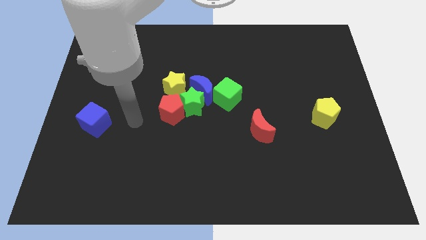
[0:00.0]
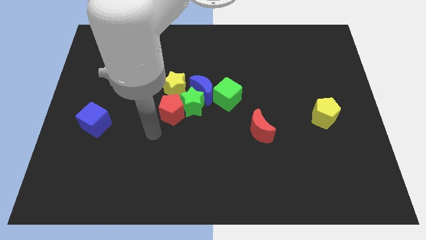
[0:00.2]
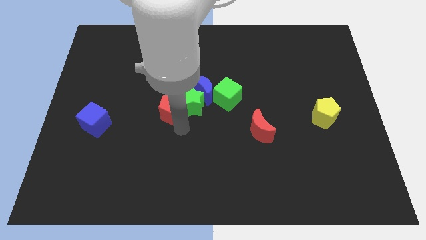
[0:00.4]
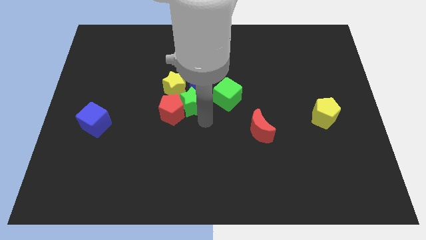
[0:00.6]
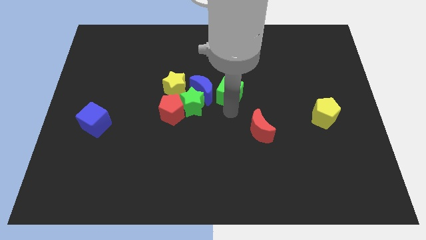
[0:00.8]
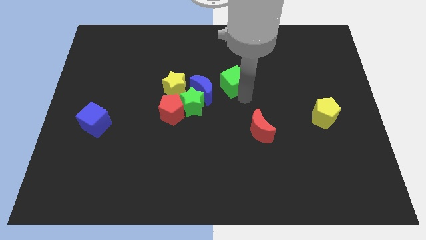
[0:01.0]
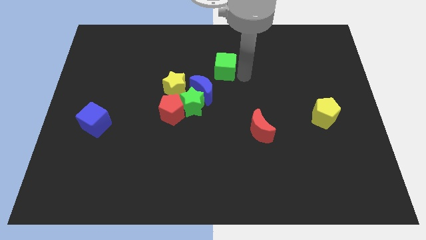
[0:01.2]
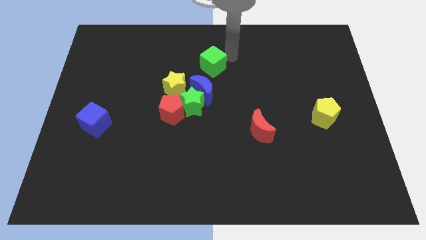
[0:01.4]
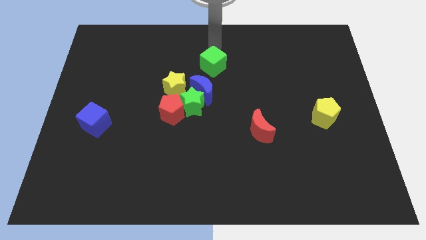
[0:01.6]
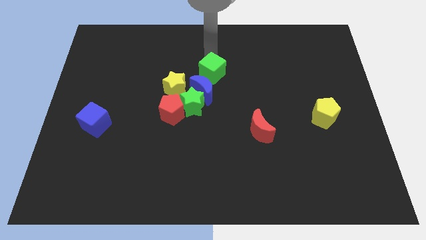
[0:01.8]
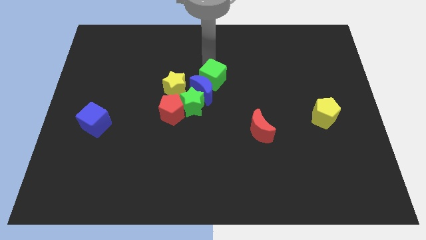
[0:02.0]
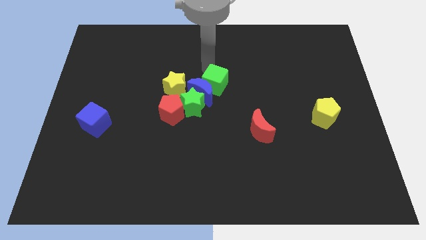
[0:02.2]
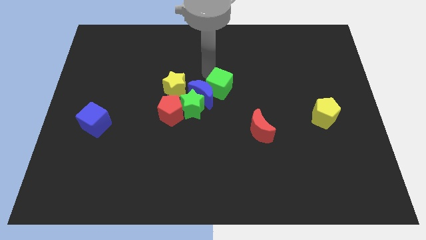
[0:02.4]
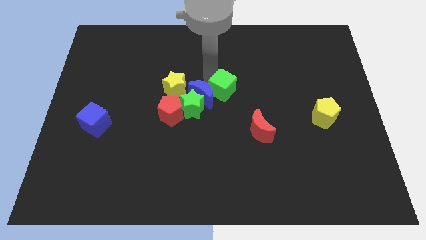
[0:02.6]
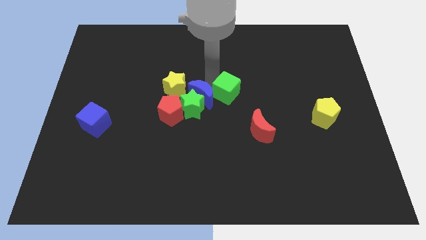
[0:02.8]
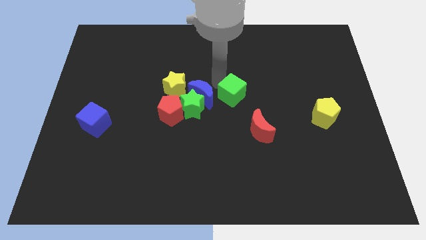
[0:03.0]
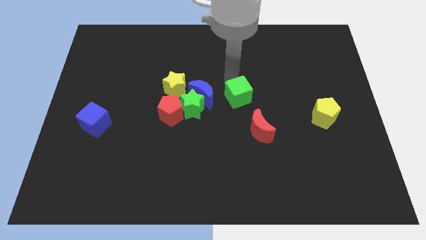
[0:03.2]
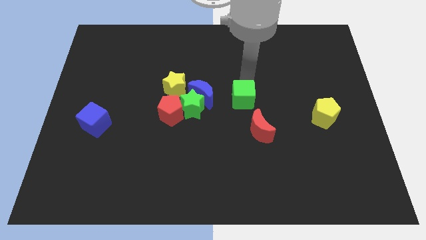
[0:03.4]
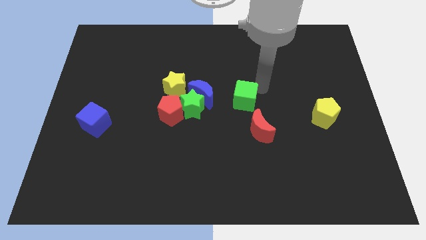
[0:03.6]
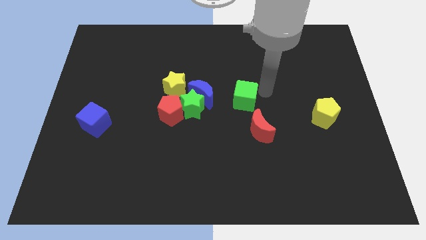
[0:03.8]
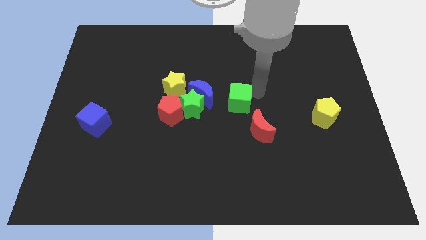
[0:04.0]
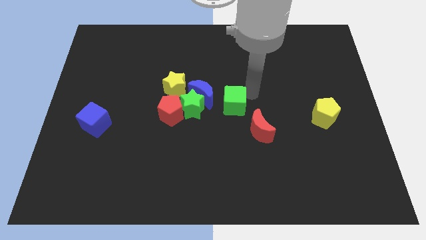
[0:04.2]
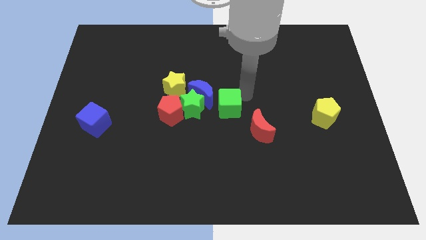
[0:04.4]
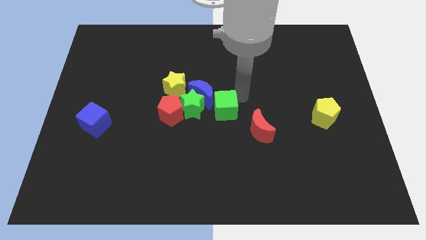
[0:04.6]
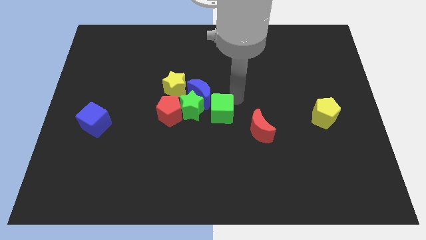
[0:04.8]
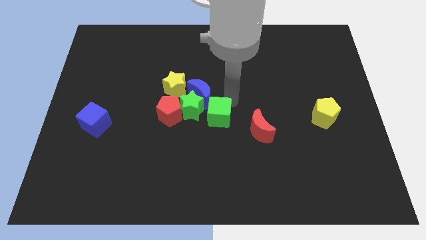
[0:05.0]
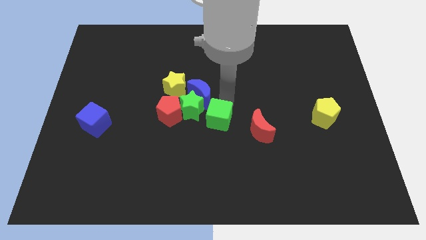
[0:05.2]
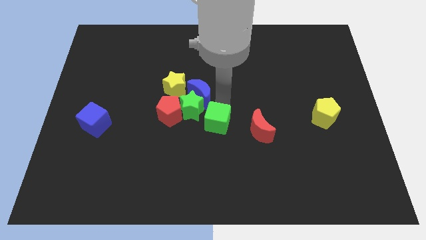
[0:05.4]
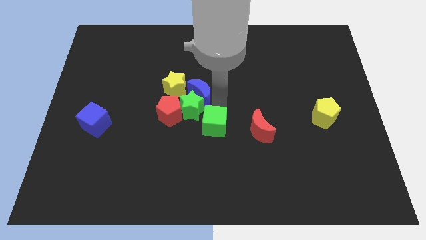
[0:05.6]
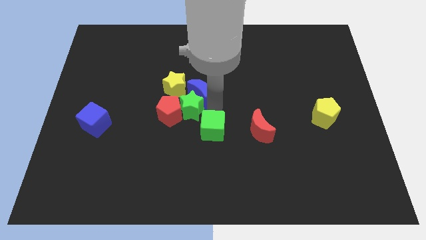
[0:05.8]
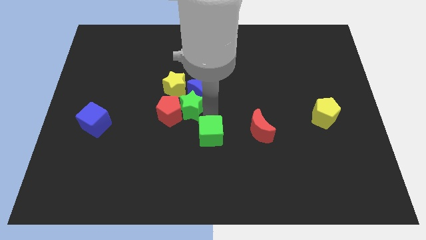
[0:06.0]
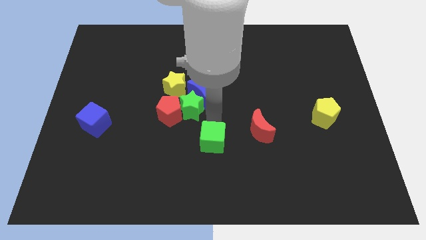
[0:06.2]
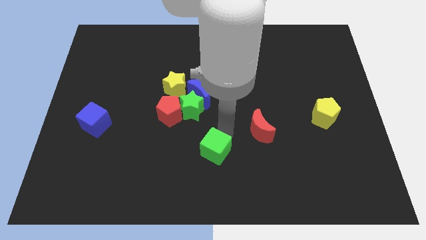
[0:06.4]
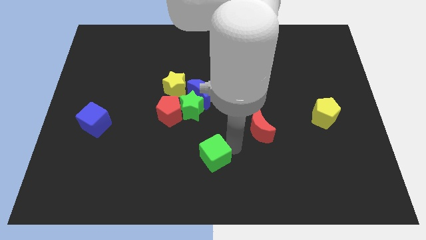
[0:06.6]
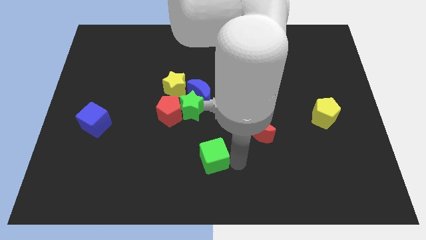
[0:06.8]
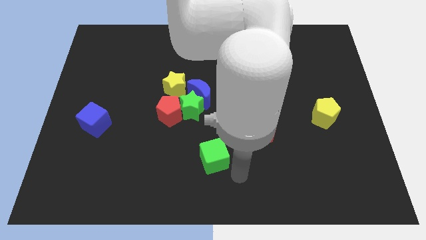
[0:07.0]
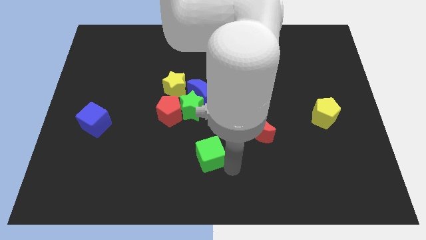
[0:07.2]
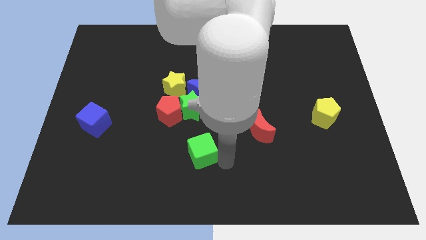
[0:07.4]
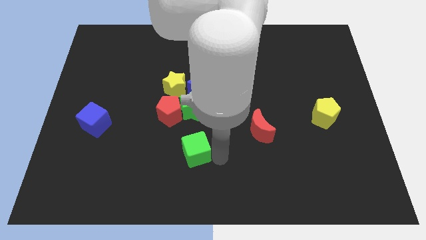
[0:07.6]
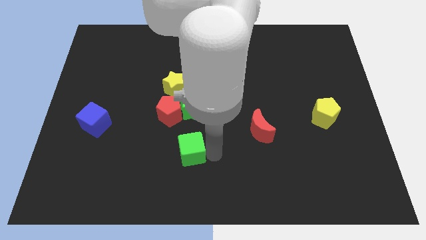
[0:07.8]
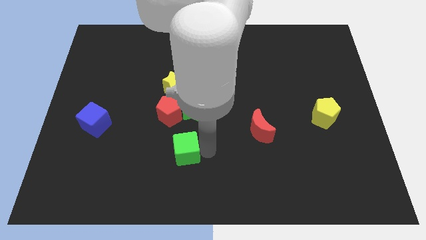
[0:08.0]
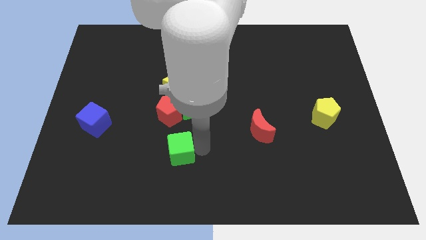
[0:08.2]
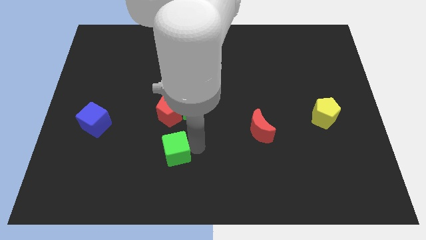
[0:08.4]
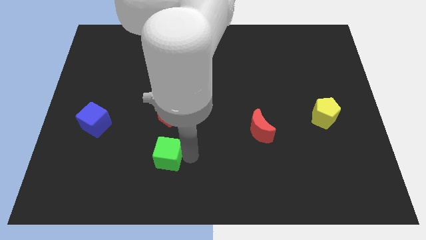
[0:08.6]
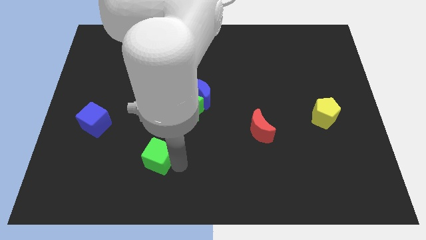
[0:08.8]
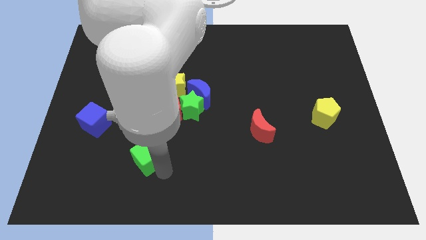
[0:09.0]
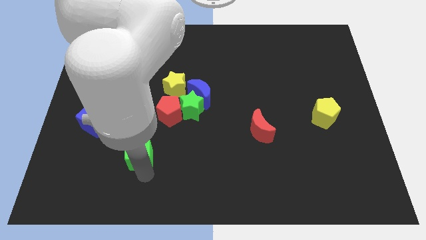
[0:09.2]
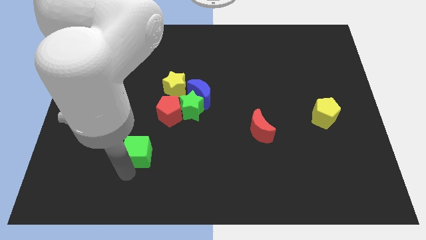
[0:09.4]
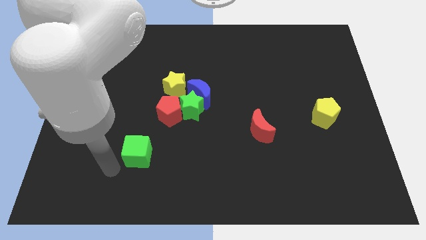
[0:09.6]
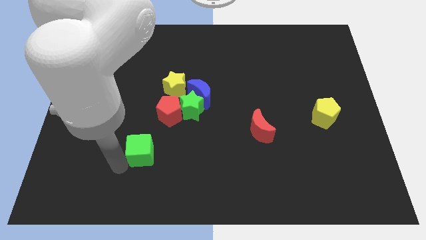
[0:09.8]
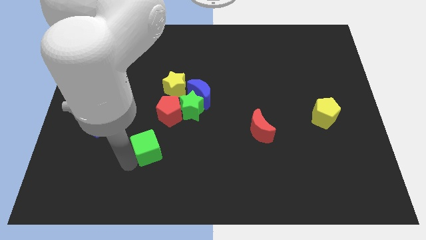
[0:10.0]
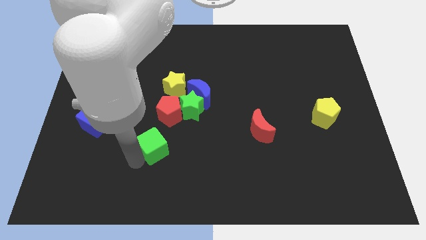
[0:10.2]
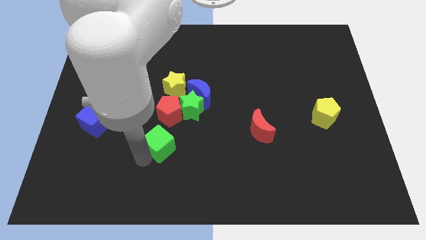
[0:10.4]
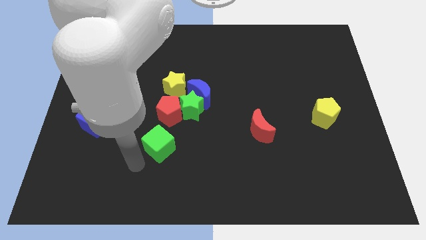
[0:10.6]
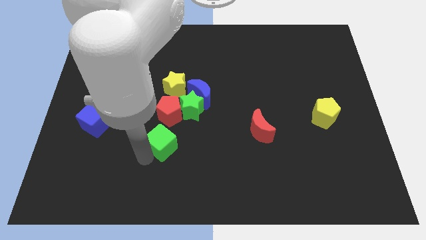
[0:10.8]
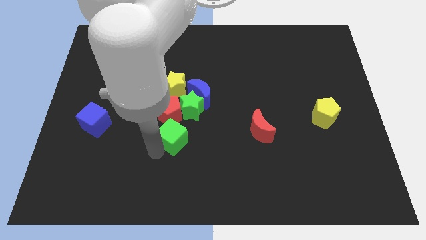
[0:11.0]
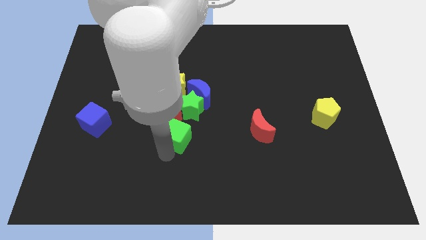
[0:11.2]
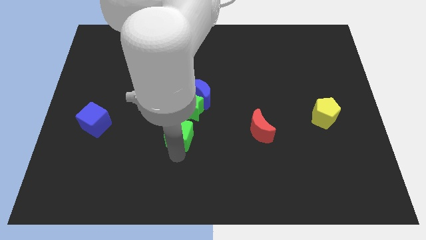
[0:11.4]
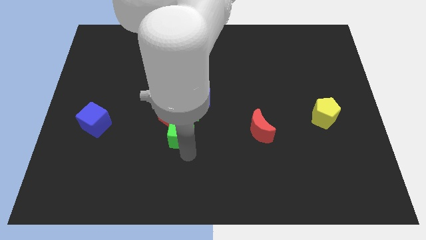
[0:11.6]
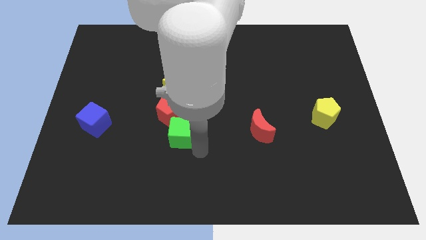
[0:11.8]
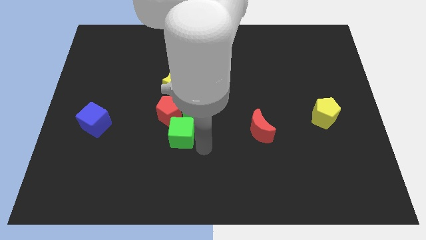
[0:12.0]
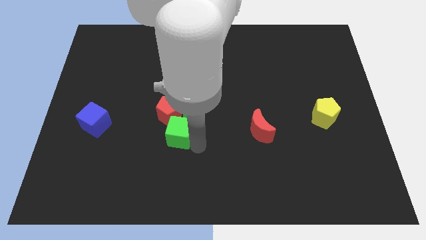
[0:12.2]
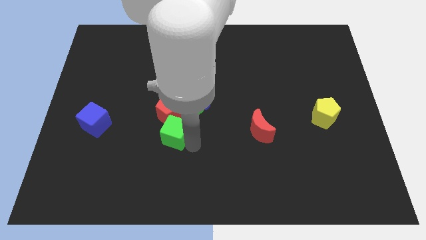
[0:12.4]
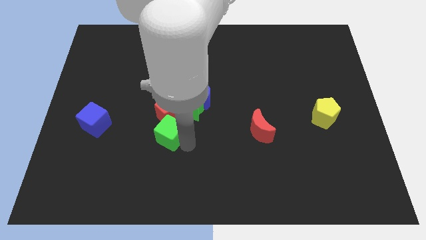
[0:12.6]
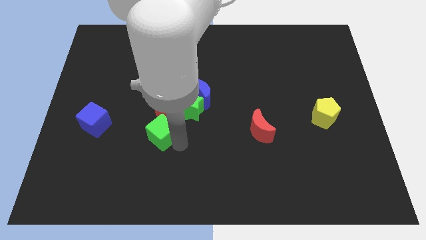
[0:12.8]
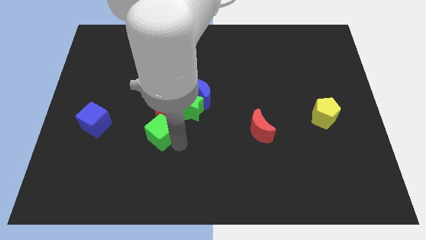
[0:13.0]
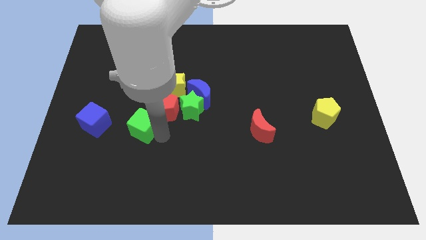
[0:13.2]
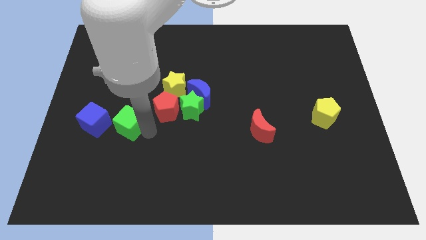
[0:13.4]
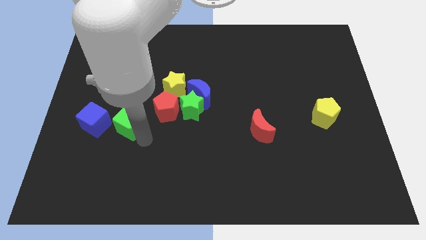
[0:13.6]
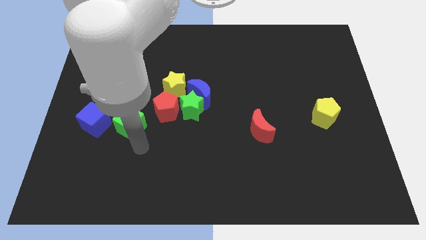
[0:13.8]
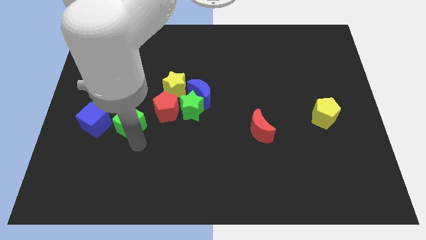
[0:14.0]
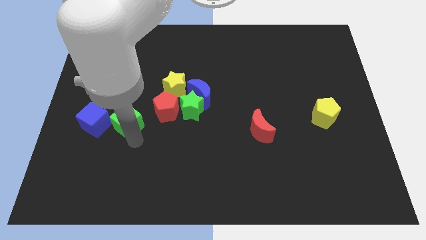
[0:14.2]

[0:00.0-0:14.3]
slide the green cube left

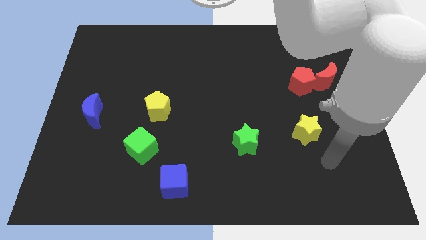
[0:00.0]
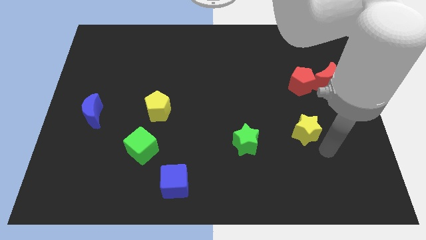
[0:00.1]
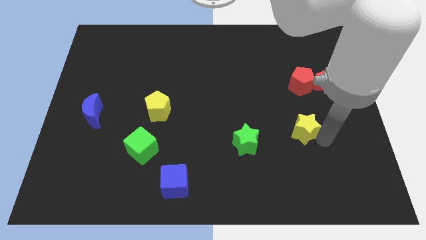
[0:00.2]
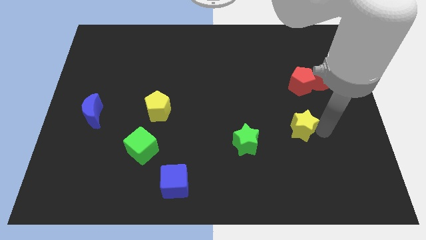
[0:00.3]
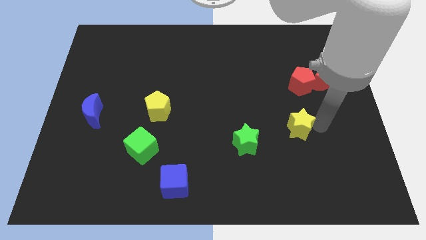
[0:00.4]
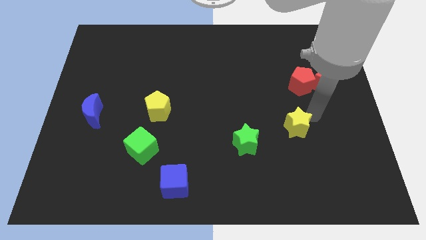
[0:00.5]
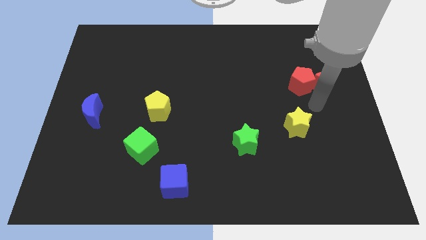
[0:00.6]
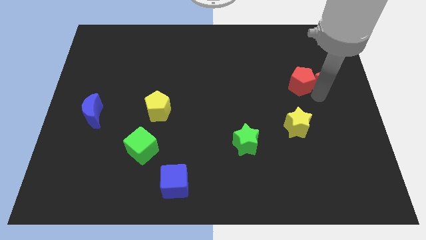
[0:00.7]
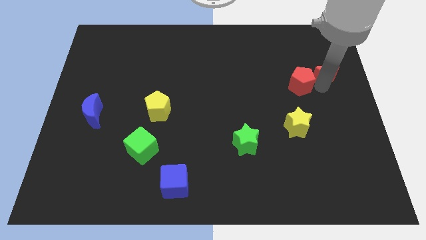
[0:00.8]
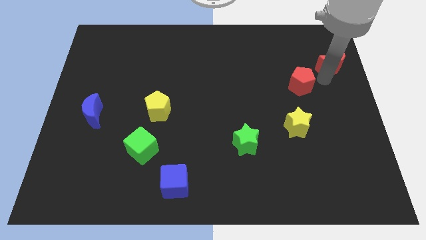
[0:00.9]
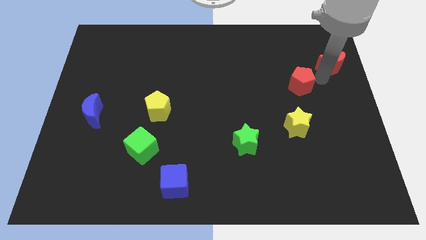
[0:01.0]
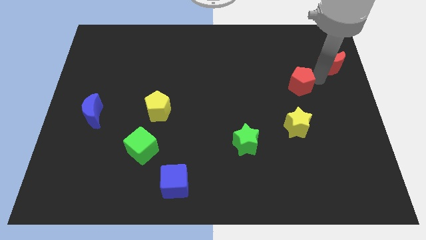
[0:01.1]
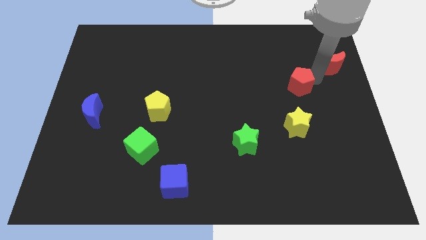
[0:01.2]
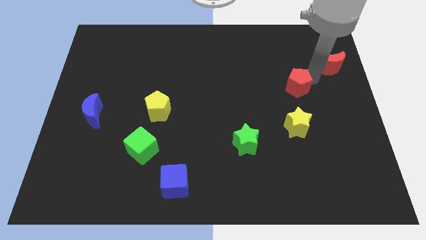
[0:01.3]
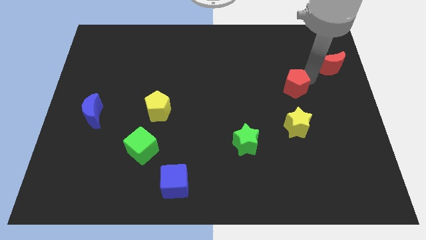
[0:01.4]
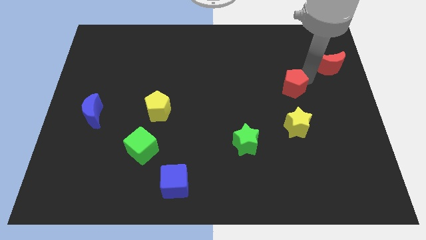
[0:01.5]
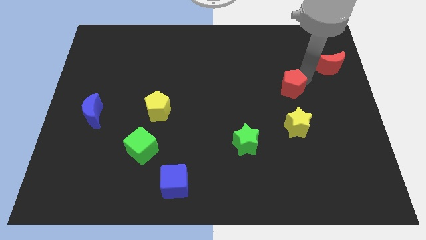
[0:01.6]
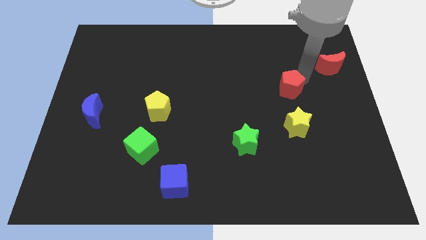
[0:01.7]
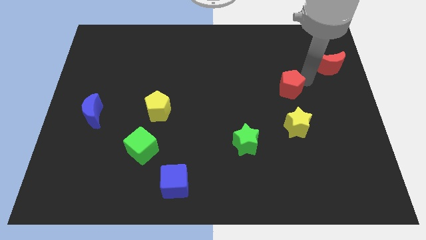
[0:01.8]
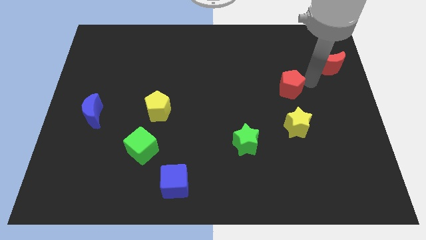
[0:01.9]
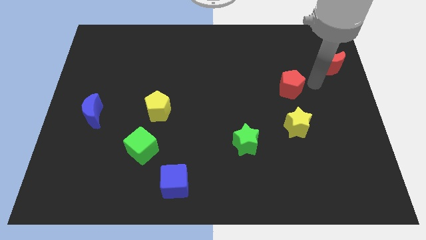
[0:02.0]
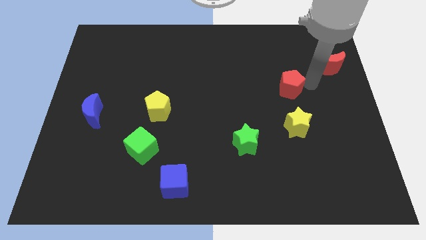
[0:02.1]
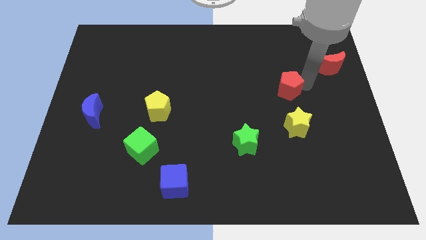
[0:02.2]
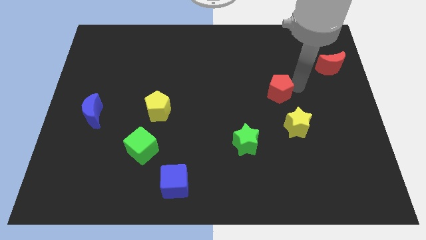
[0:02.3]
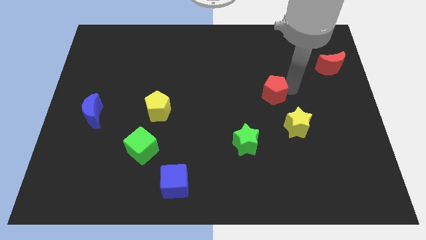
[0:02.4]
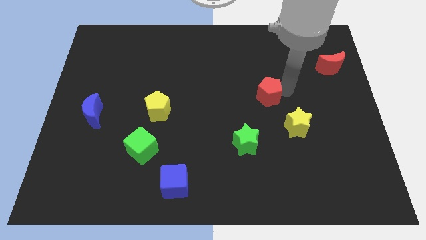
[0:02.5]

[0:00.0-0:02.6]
slightly slide the red pentagon left
